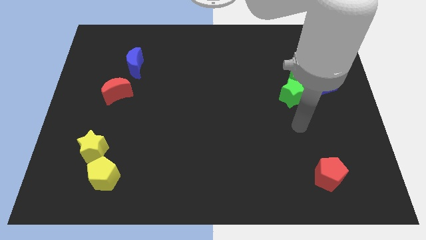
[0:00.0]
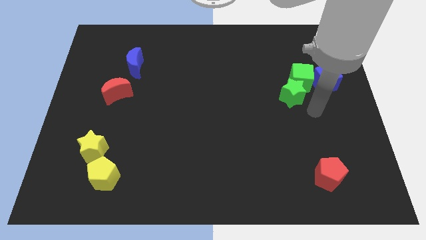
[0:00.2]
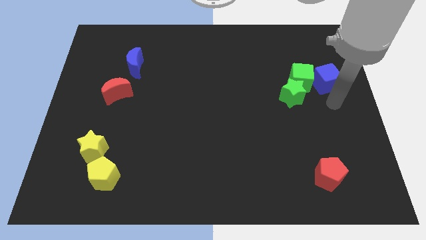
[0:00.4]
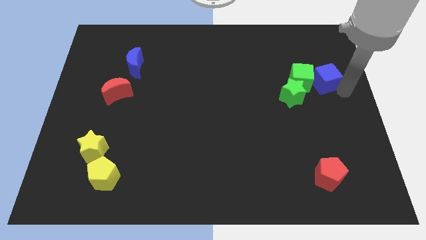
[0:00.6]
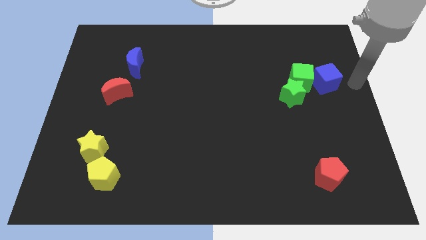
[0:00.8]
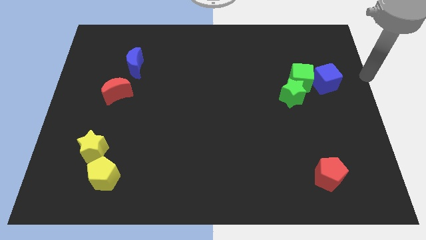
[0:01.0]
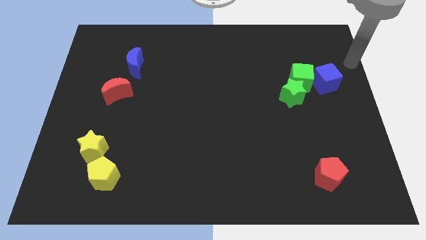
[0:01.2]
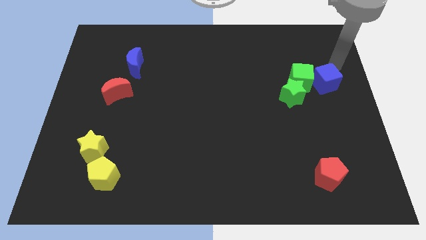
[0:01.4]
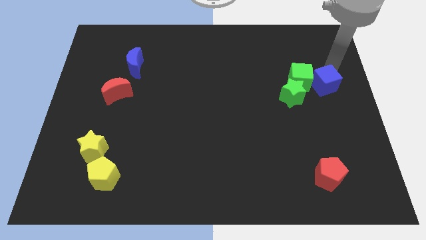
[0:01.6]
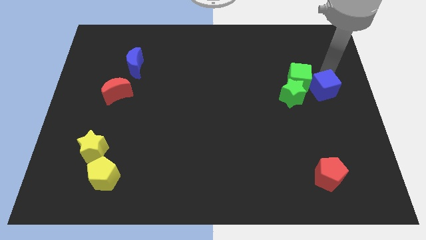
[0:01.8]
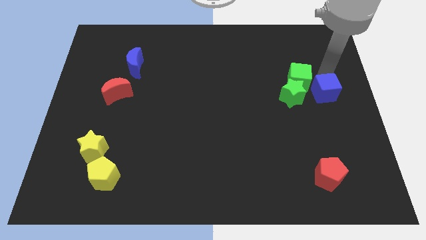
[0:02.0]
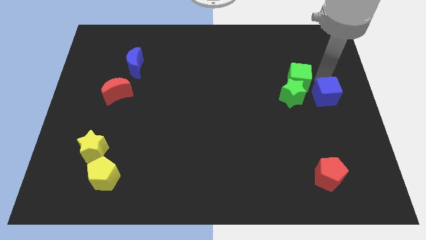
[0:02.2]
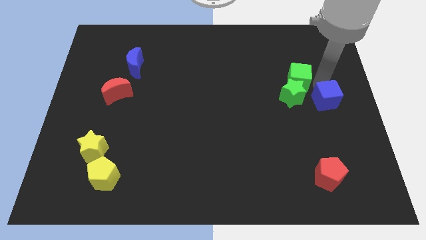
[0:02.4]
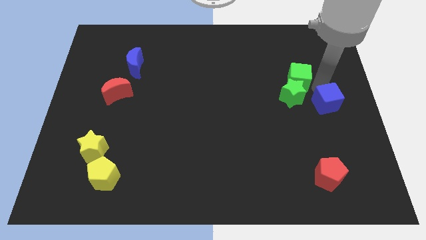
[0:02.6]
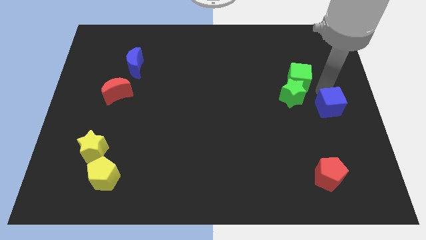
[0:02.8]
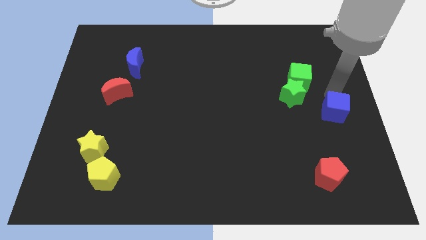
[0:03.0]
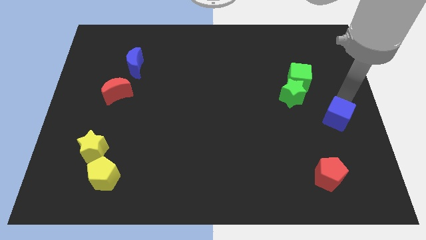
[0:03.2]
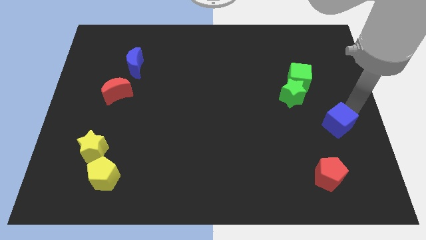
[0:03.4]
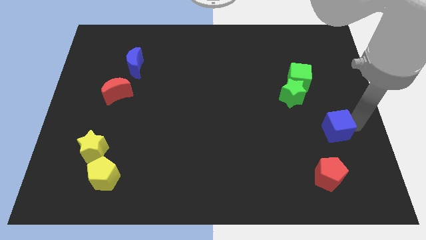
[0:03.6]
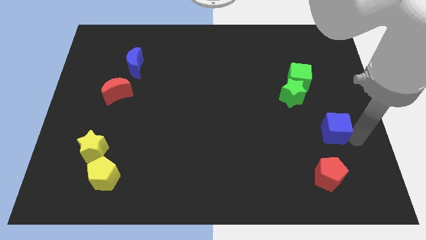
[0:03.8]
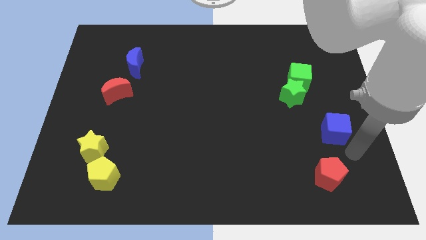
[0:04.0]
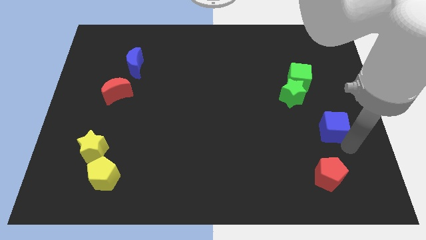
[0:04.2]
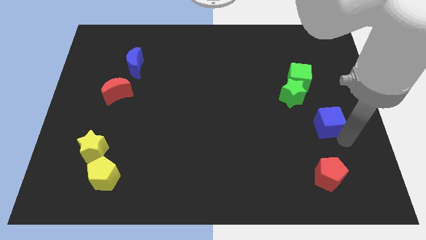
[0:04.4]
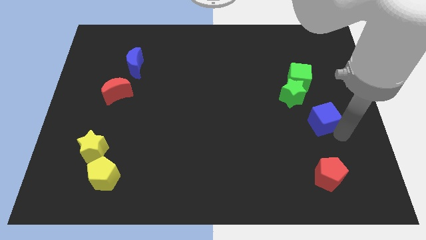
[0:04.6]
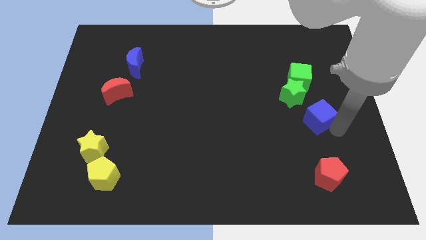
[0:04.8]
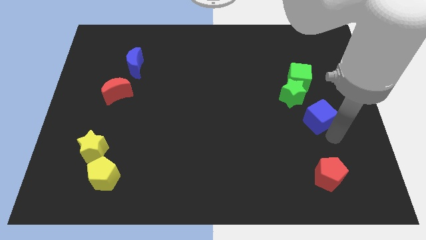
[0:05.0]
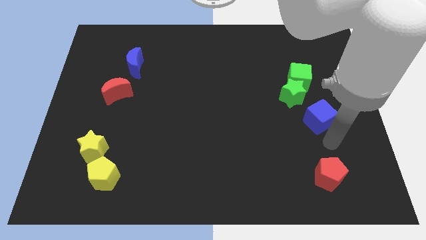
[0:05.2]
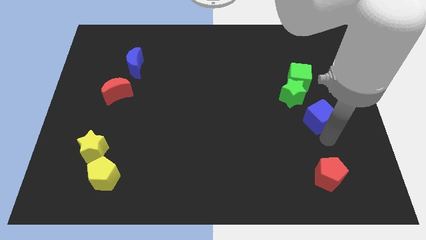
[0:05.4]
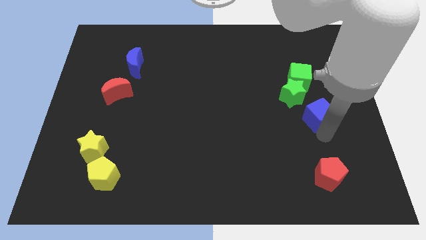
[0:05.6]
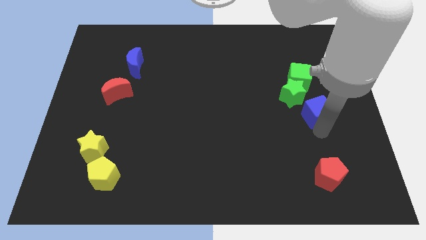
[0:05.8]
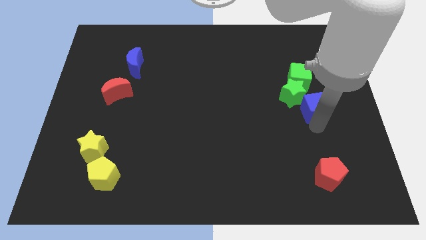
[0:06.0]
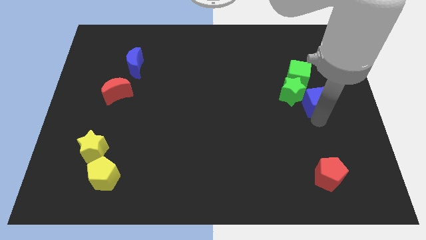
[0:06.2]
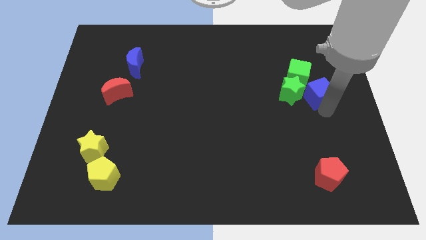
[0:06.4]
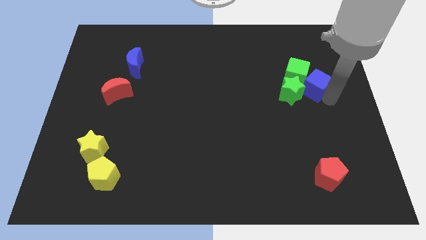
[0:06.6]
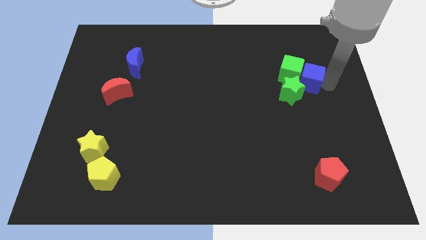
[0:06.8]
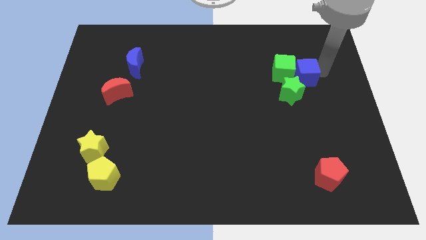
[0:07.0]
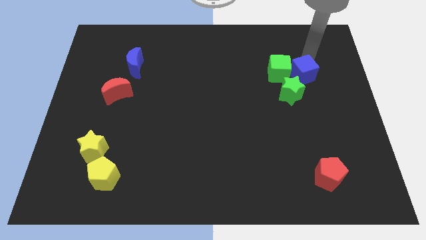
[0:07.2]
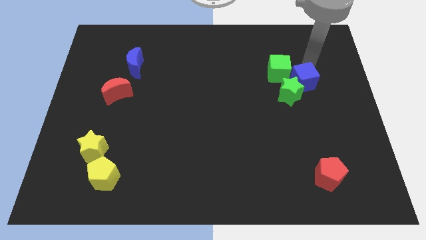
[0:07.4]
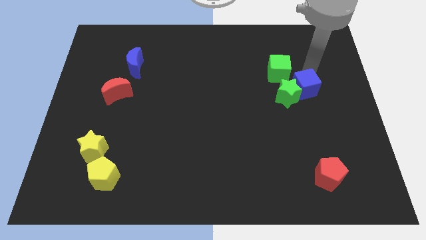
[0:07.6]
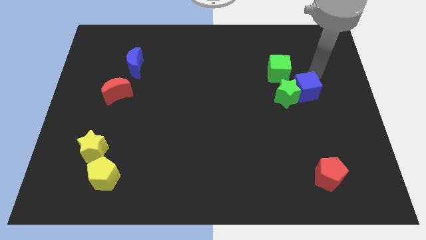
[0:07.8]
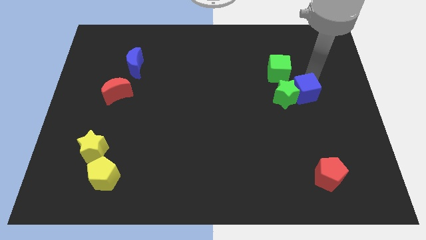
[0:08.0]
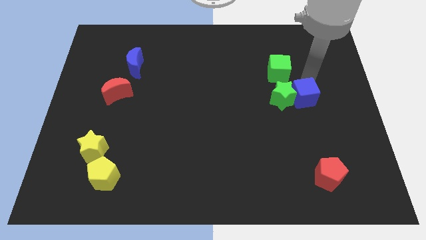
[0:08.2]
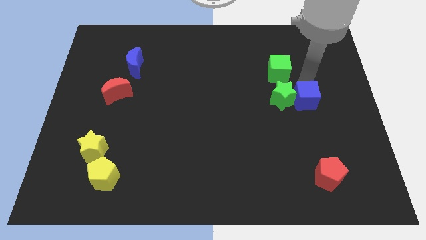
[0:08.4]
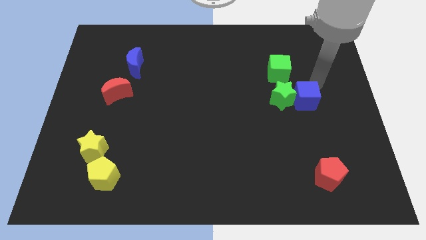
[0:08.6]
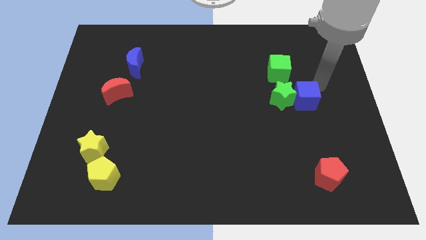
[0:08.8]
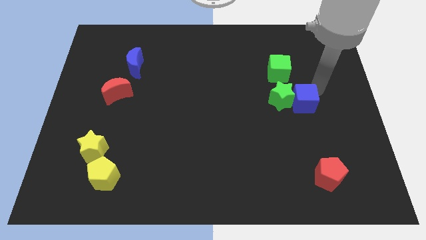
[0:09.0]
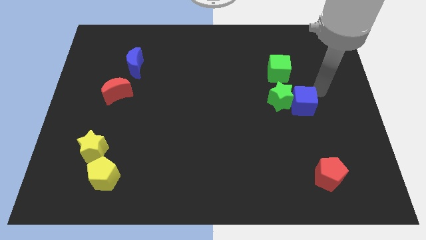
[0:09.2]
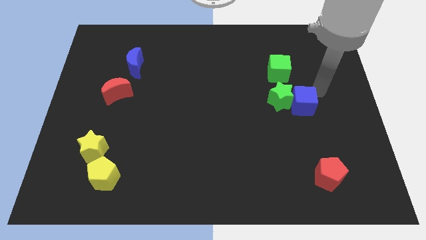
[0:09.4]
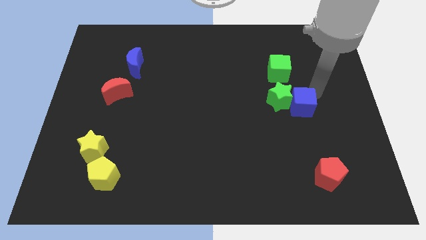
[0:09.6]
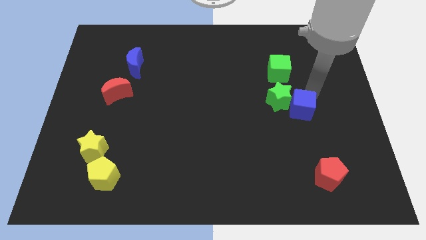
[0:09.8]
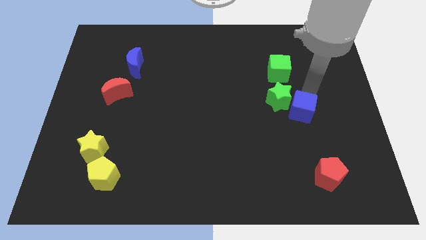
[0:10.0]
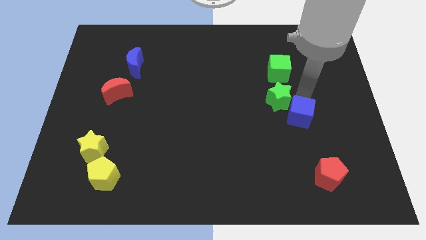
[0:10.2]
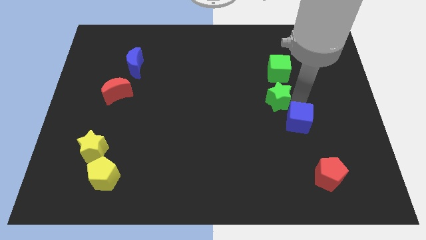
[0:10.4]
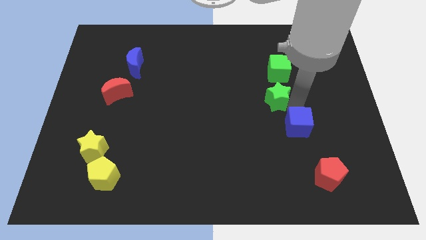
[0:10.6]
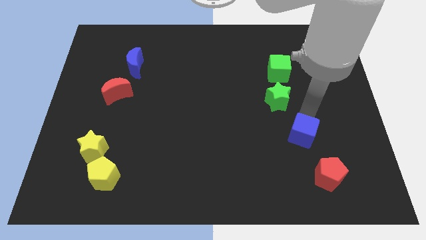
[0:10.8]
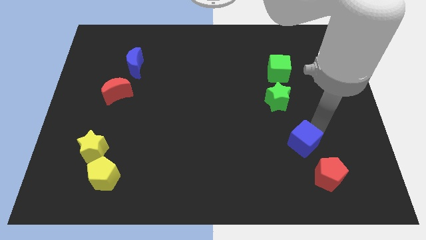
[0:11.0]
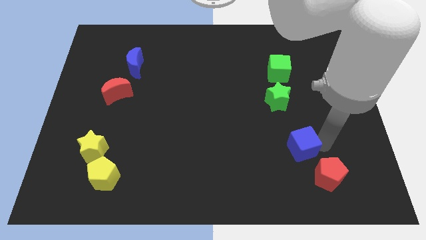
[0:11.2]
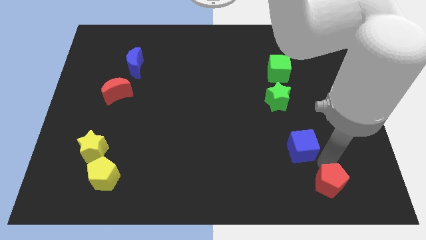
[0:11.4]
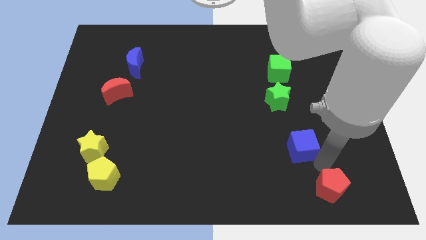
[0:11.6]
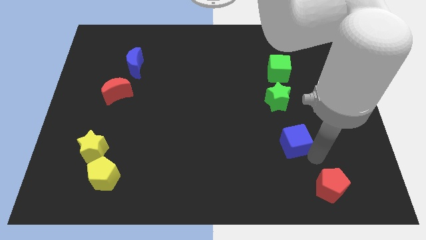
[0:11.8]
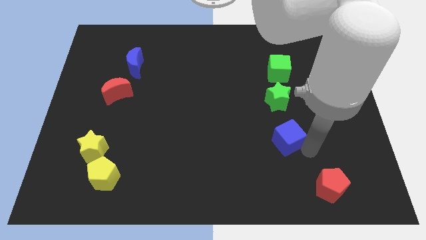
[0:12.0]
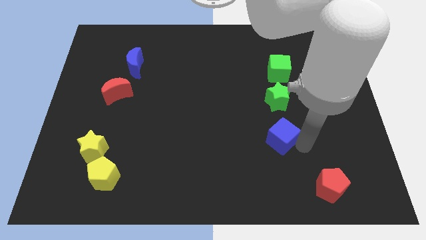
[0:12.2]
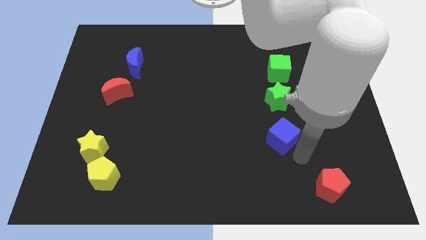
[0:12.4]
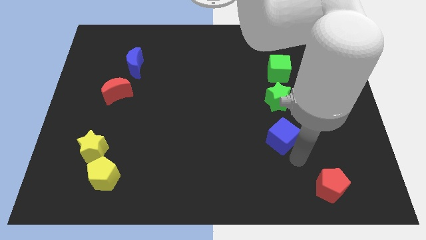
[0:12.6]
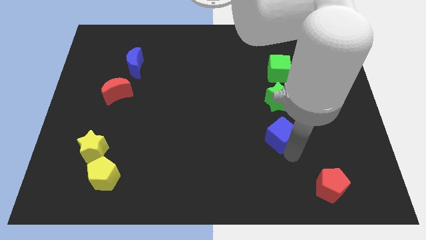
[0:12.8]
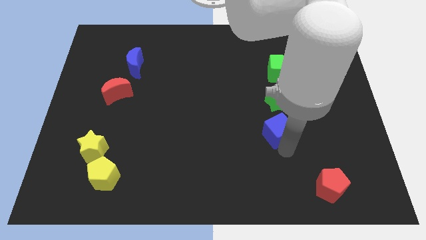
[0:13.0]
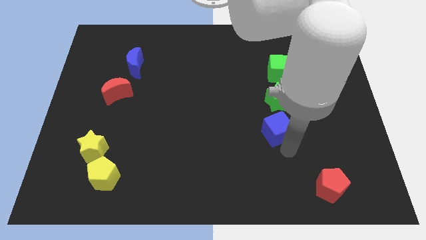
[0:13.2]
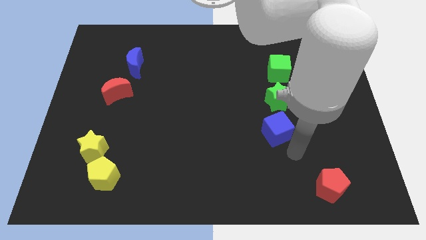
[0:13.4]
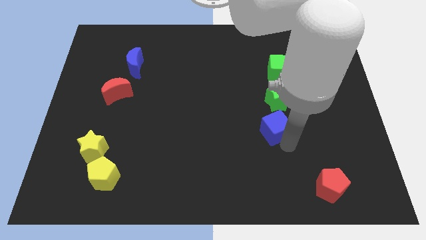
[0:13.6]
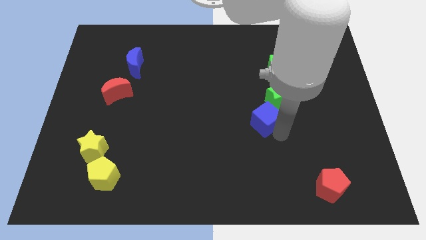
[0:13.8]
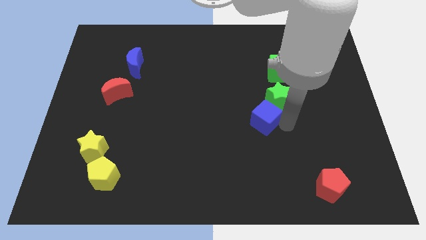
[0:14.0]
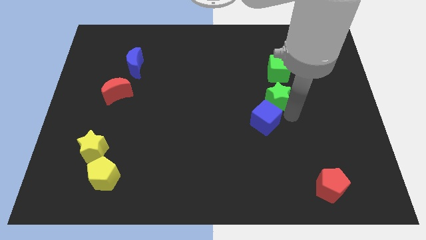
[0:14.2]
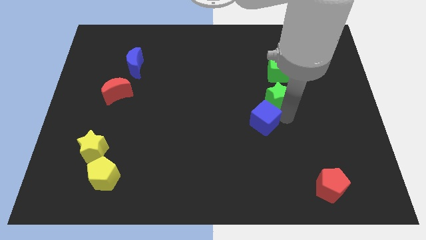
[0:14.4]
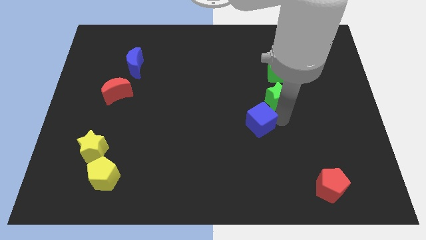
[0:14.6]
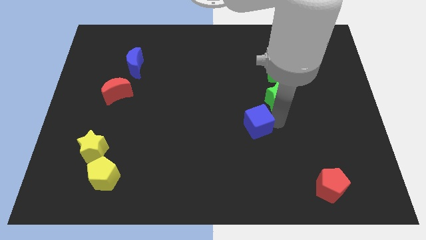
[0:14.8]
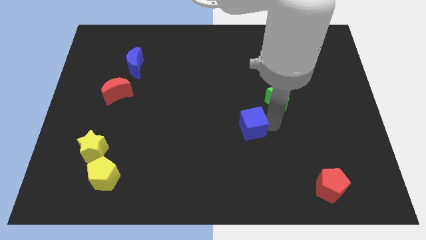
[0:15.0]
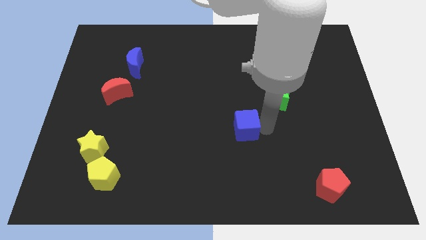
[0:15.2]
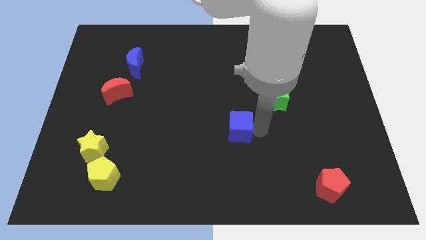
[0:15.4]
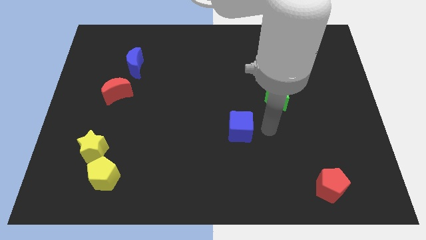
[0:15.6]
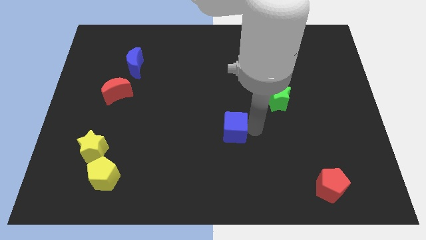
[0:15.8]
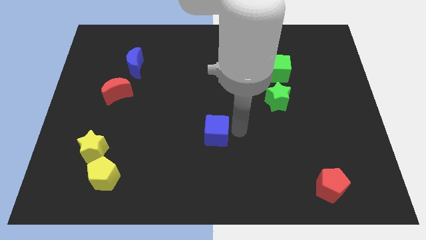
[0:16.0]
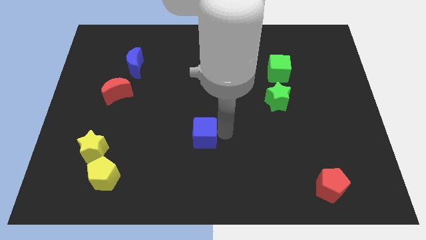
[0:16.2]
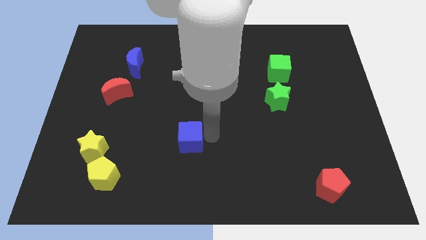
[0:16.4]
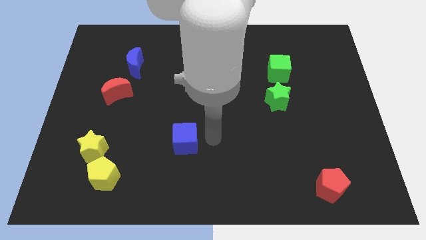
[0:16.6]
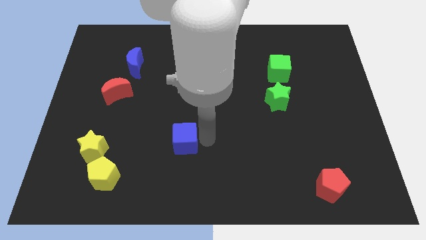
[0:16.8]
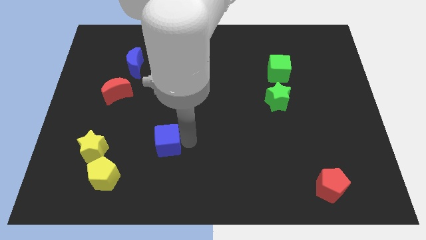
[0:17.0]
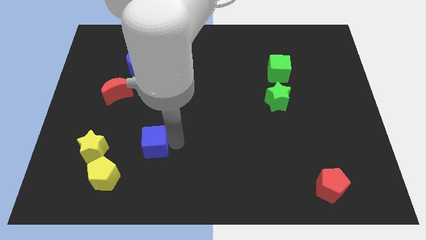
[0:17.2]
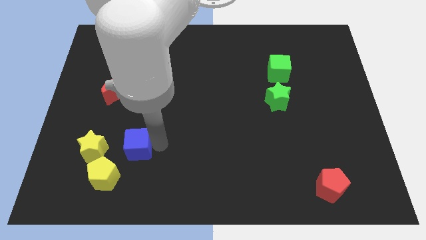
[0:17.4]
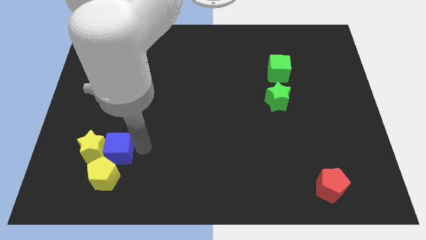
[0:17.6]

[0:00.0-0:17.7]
slide the blue cube close to the yellow star
